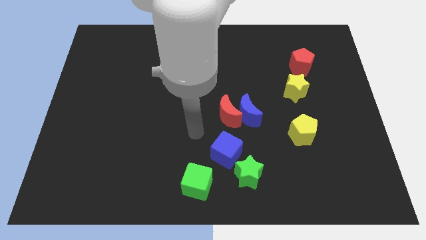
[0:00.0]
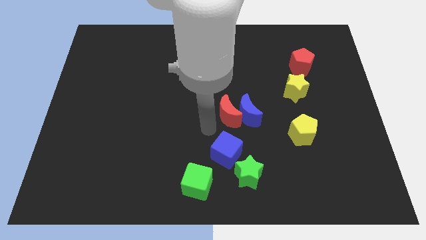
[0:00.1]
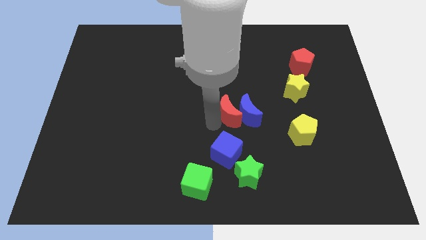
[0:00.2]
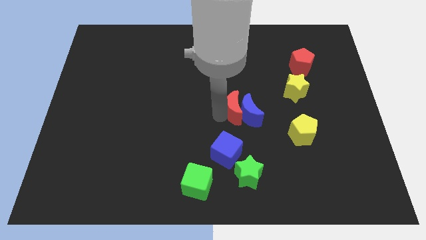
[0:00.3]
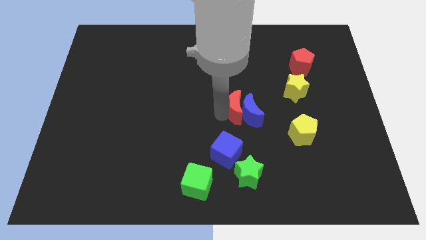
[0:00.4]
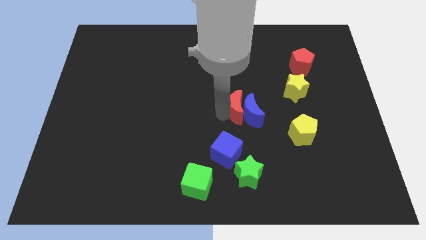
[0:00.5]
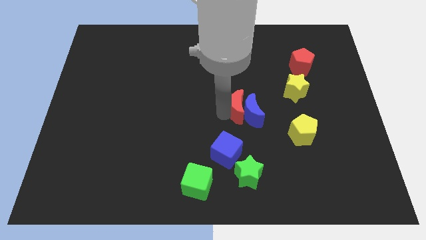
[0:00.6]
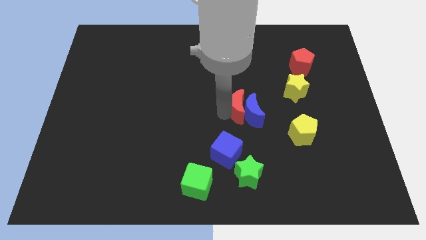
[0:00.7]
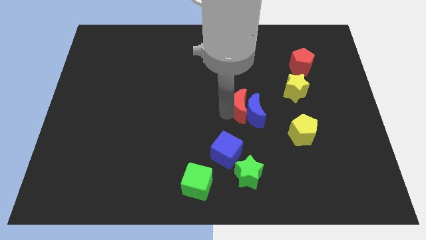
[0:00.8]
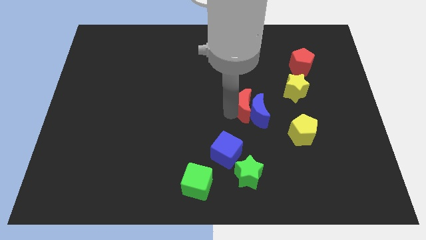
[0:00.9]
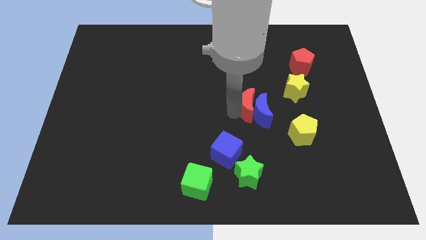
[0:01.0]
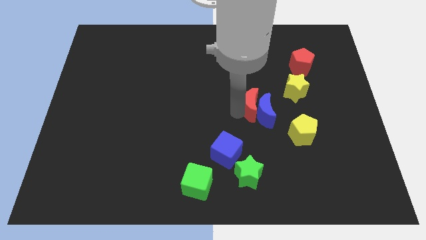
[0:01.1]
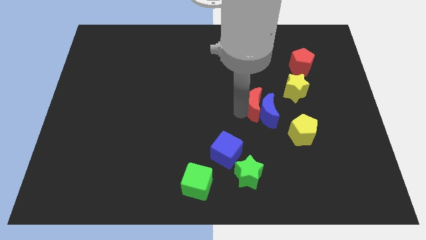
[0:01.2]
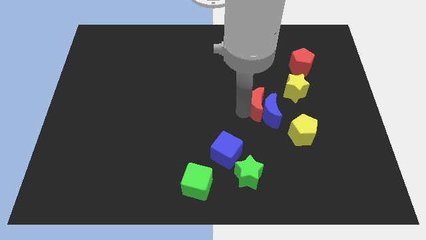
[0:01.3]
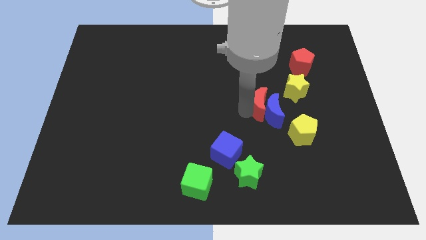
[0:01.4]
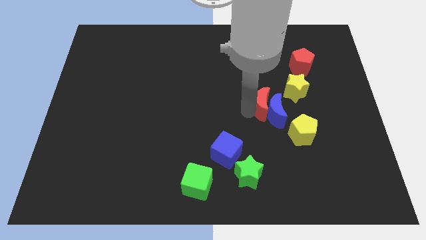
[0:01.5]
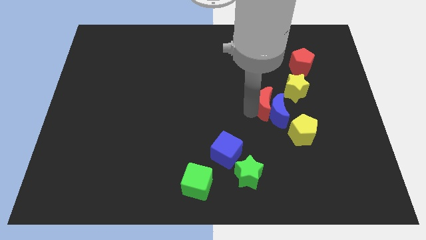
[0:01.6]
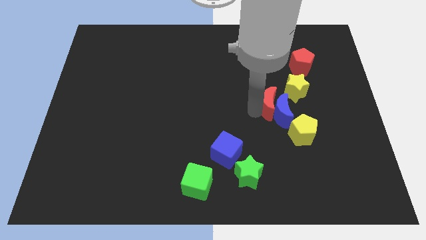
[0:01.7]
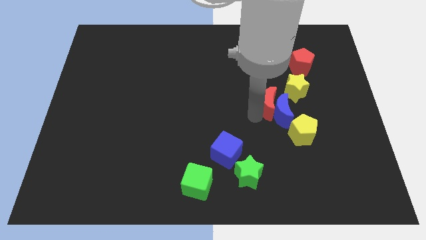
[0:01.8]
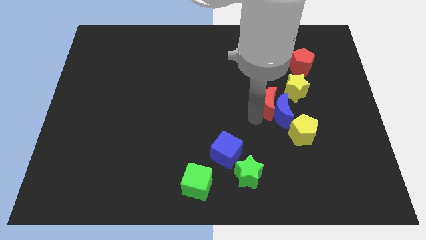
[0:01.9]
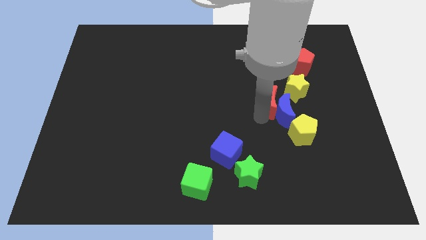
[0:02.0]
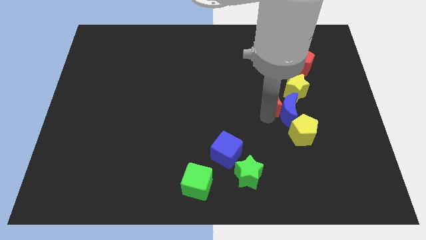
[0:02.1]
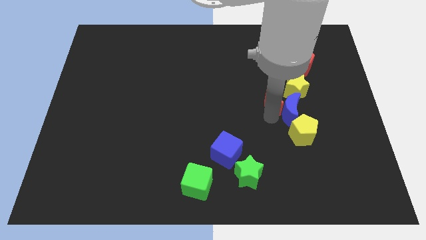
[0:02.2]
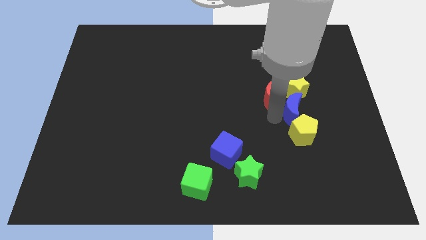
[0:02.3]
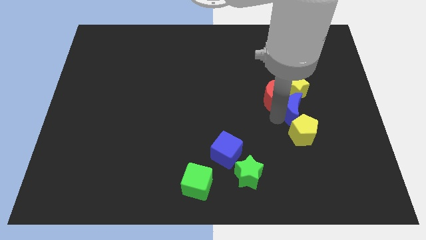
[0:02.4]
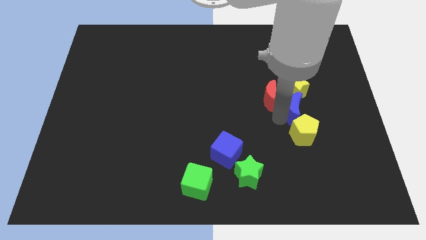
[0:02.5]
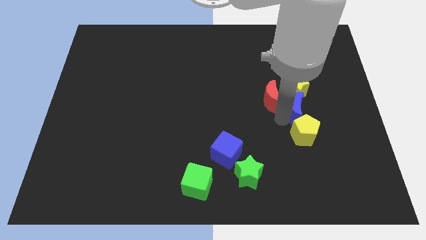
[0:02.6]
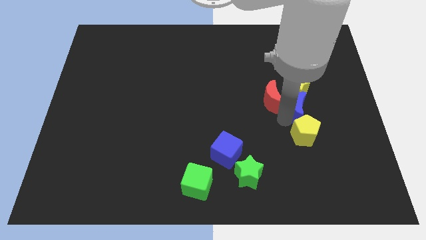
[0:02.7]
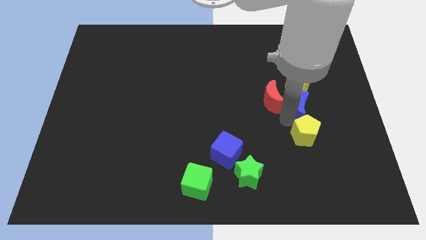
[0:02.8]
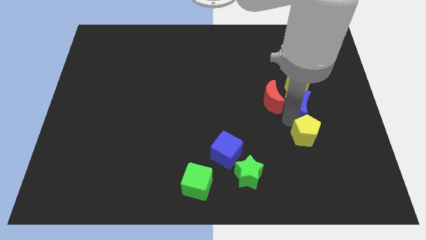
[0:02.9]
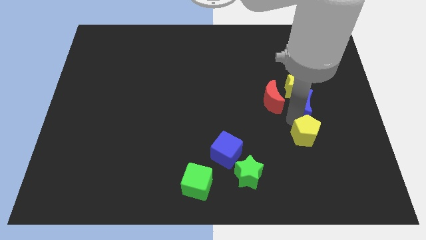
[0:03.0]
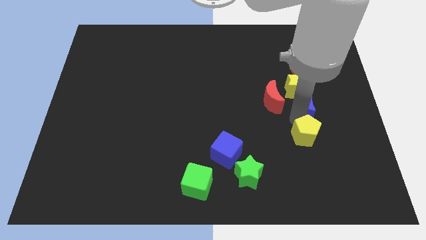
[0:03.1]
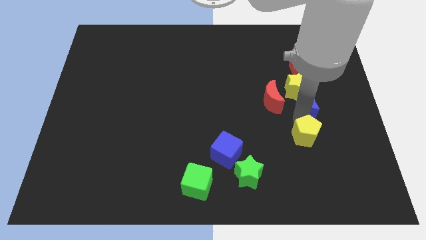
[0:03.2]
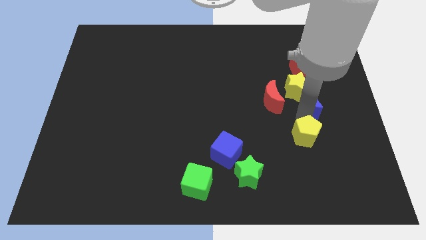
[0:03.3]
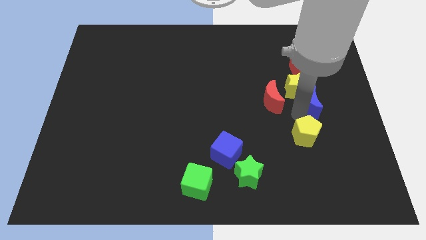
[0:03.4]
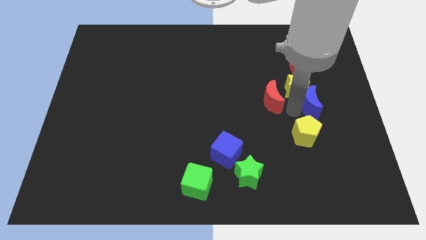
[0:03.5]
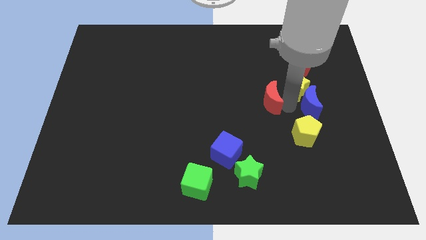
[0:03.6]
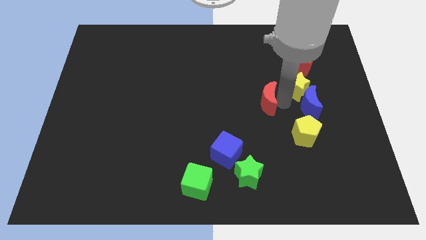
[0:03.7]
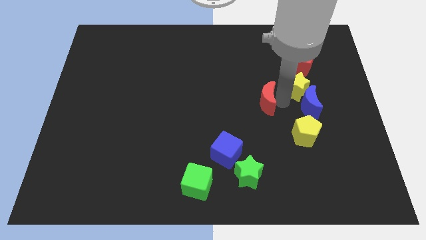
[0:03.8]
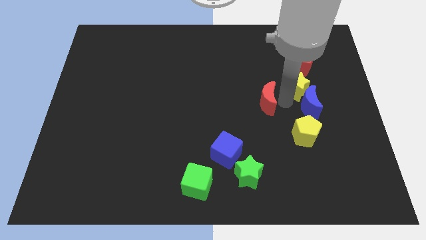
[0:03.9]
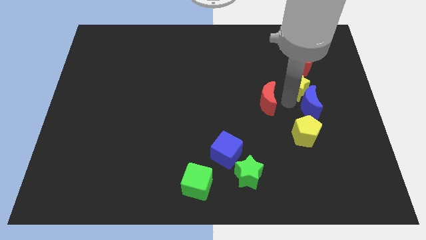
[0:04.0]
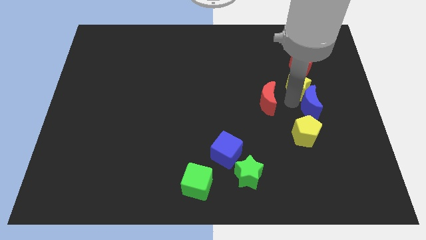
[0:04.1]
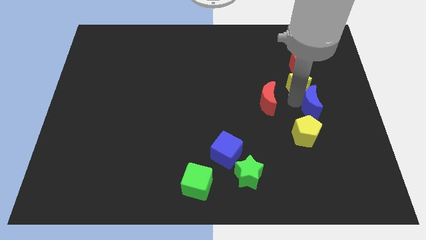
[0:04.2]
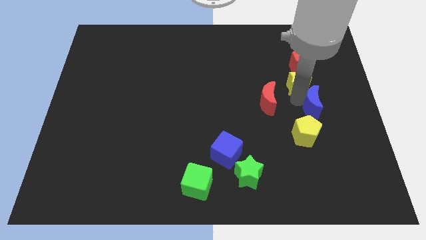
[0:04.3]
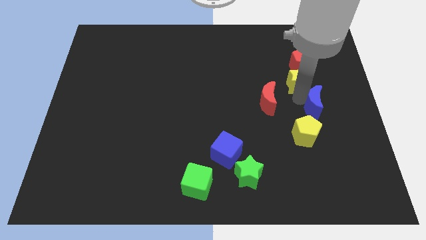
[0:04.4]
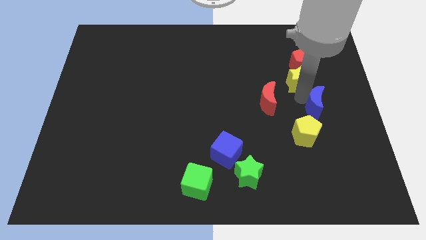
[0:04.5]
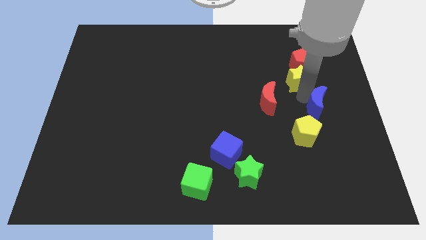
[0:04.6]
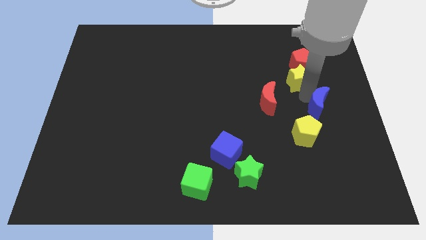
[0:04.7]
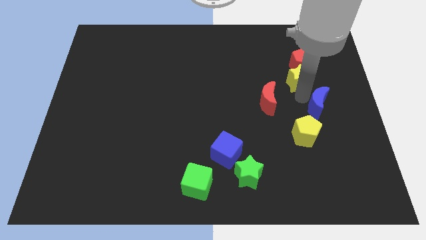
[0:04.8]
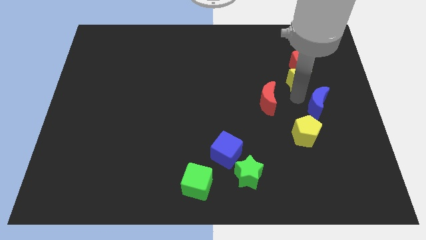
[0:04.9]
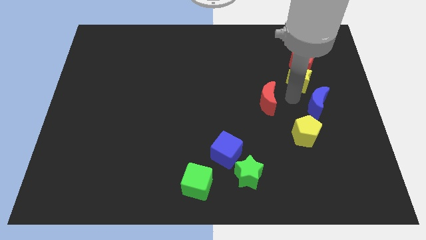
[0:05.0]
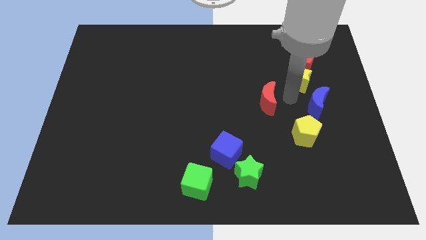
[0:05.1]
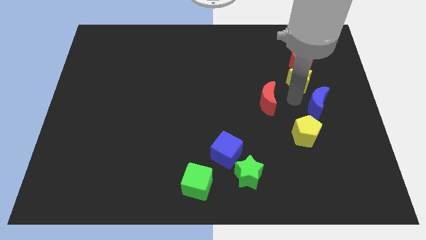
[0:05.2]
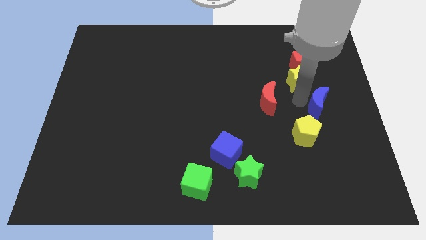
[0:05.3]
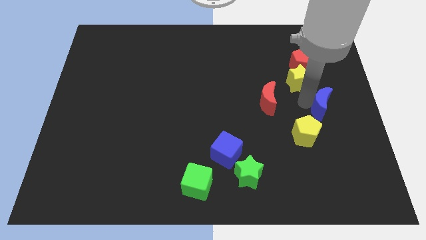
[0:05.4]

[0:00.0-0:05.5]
slide the blue moon to the center right

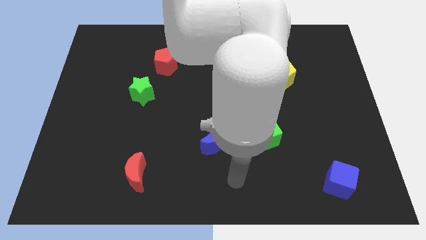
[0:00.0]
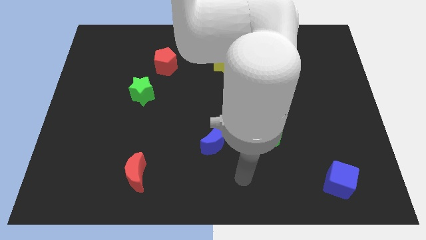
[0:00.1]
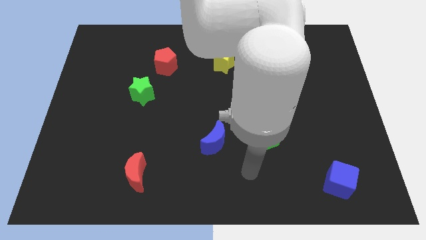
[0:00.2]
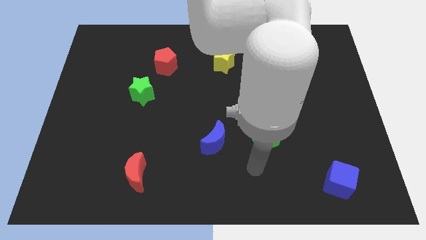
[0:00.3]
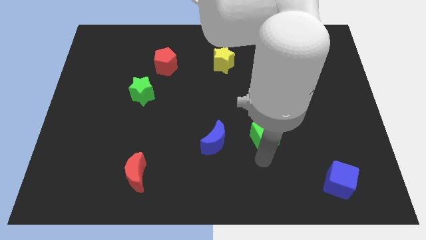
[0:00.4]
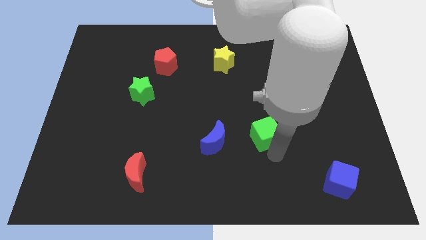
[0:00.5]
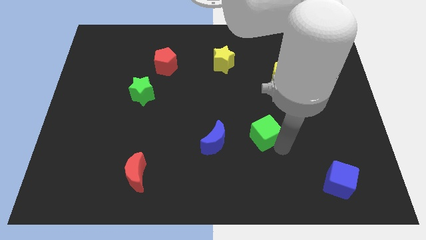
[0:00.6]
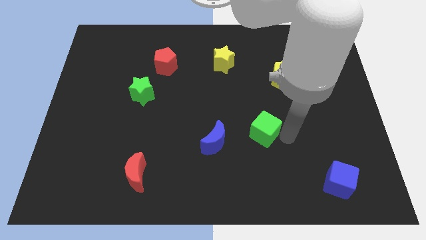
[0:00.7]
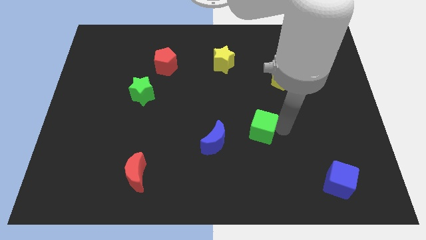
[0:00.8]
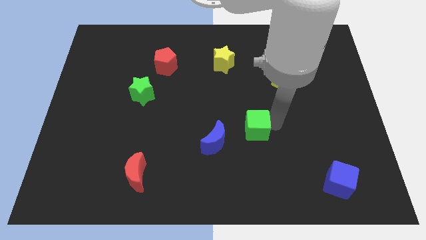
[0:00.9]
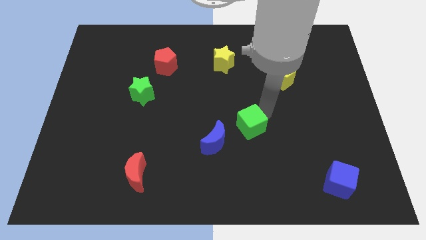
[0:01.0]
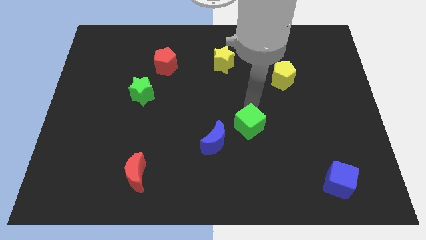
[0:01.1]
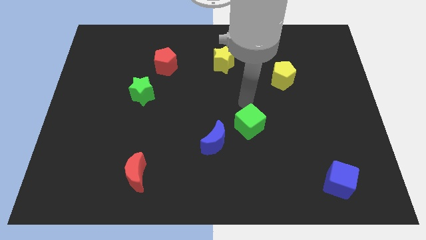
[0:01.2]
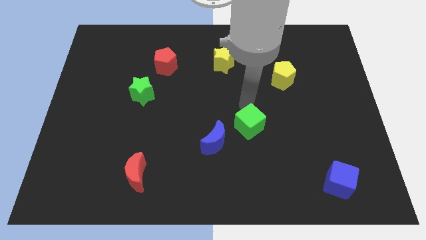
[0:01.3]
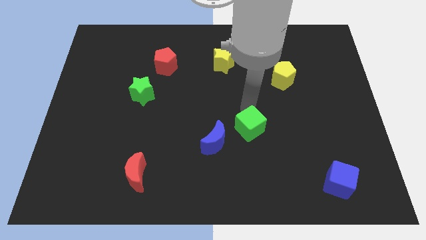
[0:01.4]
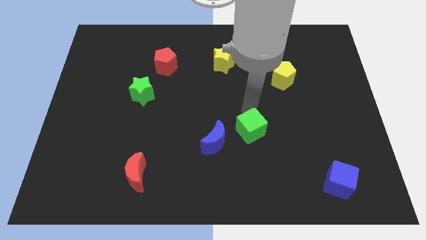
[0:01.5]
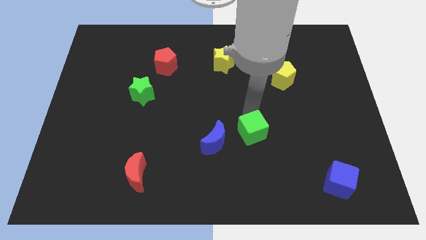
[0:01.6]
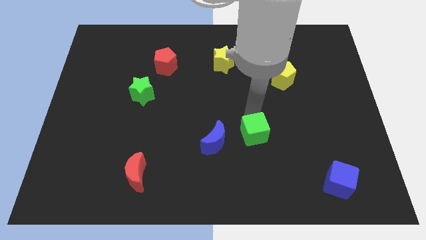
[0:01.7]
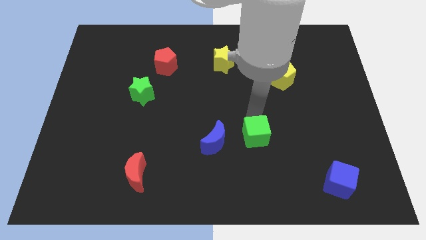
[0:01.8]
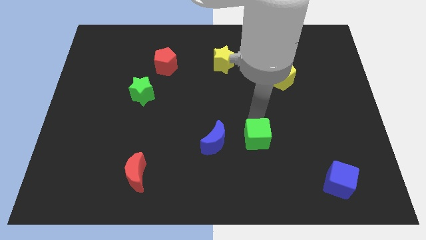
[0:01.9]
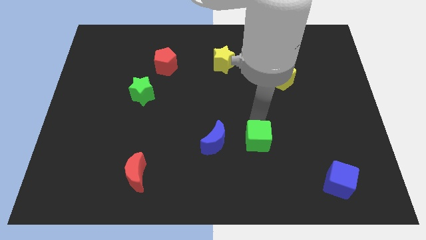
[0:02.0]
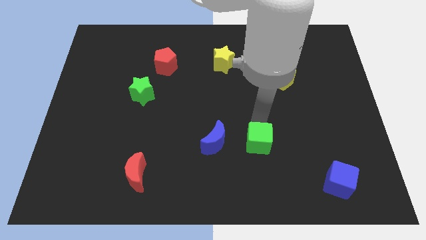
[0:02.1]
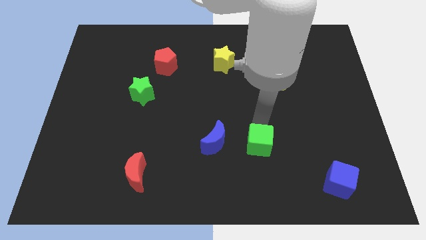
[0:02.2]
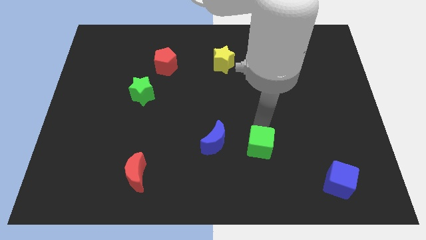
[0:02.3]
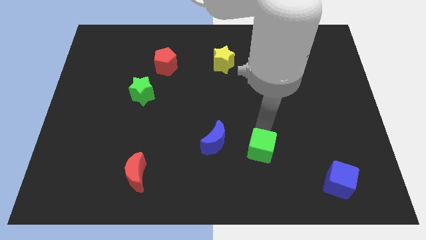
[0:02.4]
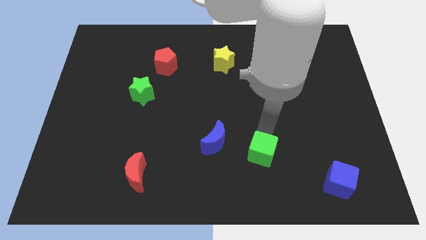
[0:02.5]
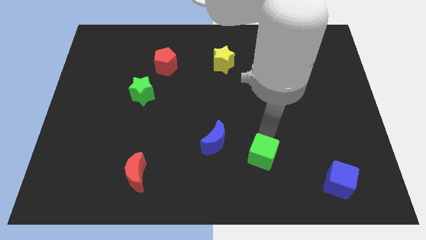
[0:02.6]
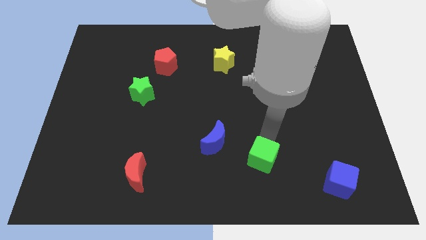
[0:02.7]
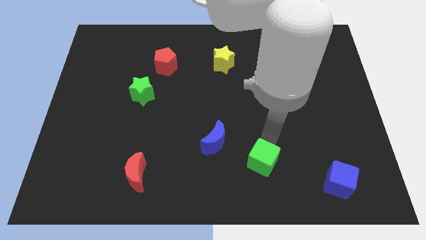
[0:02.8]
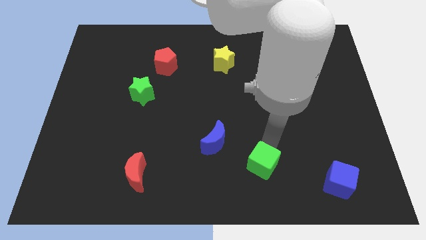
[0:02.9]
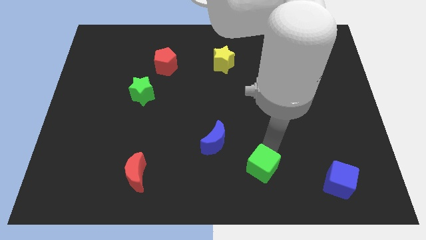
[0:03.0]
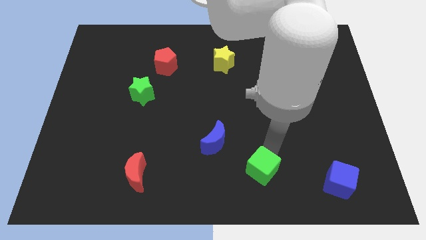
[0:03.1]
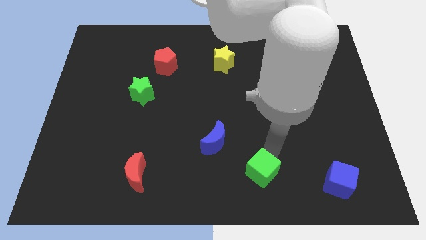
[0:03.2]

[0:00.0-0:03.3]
slide the green cube to the bottom side
